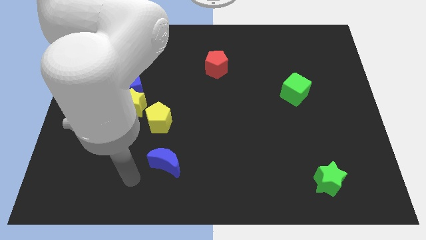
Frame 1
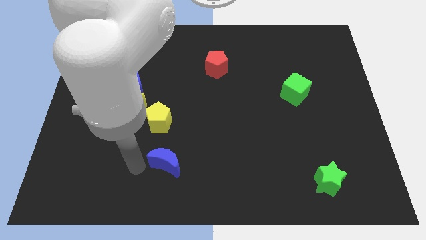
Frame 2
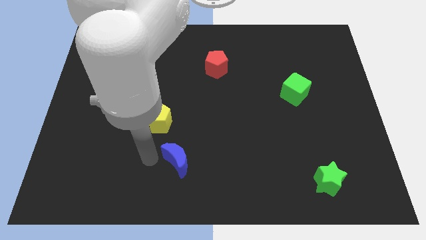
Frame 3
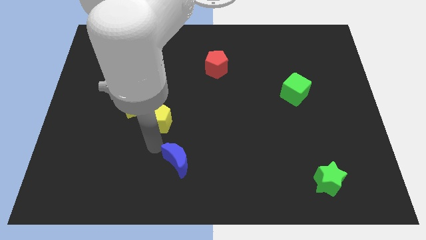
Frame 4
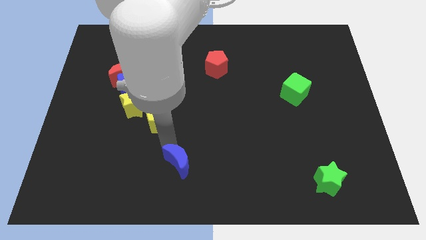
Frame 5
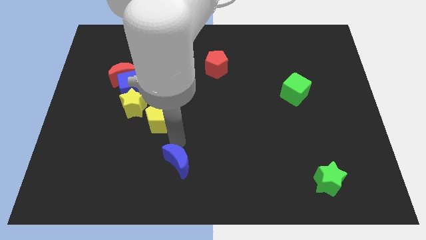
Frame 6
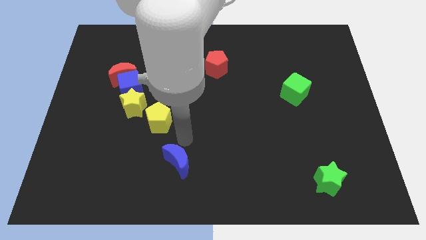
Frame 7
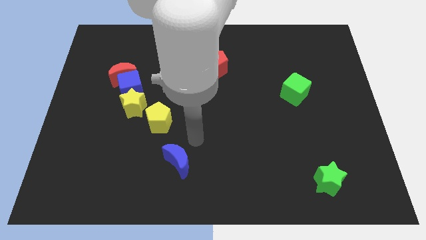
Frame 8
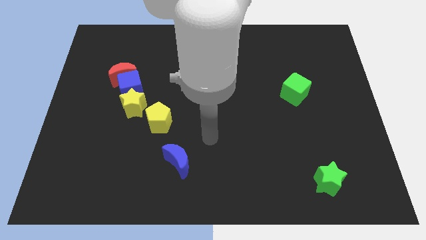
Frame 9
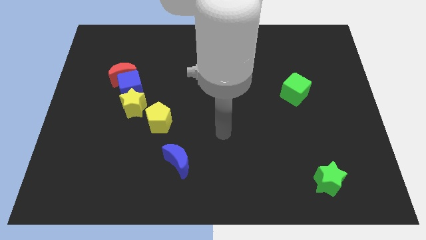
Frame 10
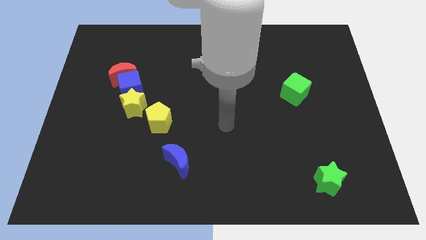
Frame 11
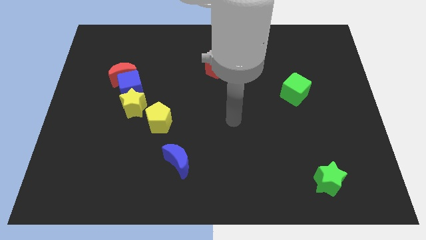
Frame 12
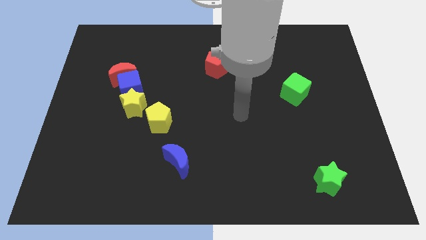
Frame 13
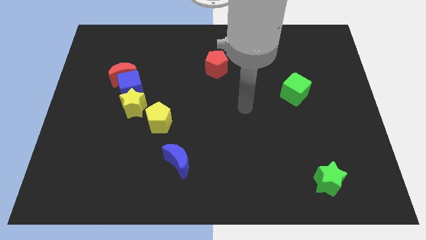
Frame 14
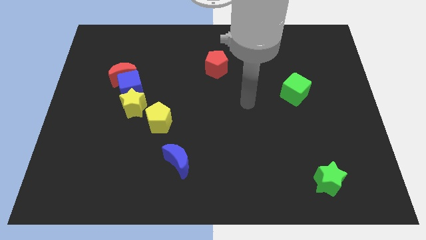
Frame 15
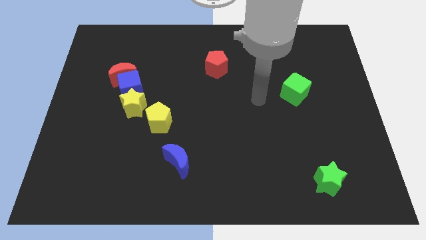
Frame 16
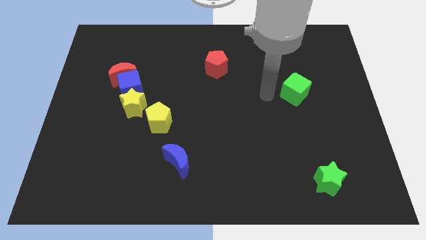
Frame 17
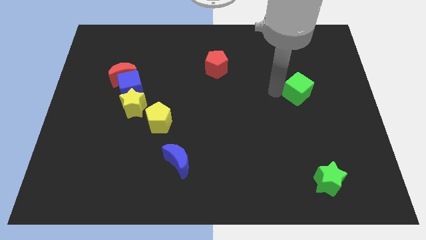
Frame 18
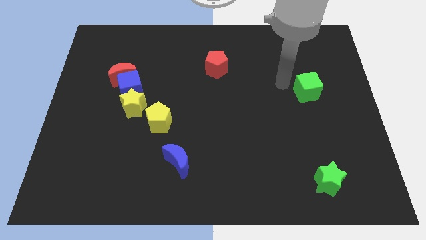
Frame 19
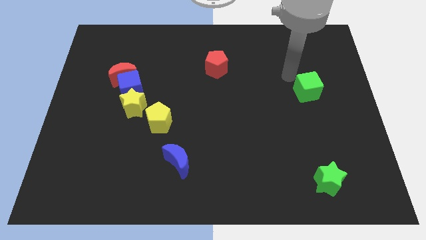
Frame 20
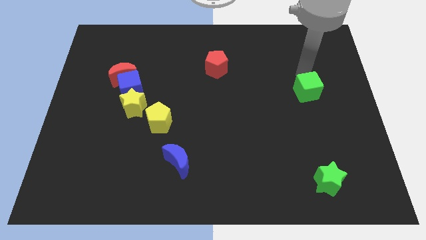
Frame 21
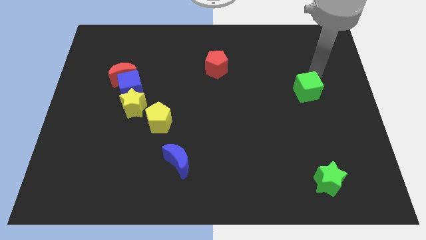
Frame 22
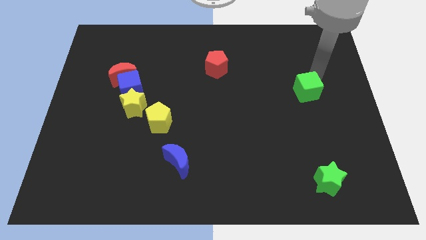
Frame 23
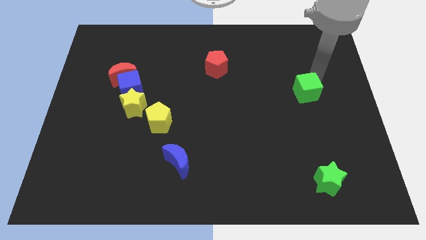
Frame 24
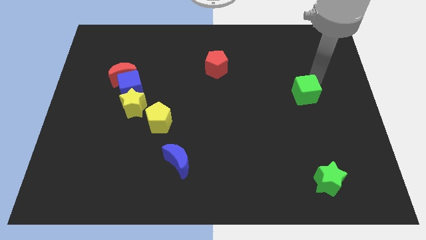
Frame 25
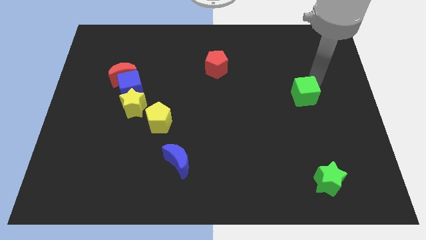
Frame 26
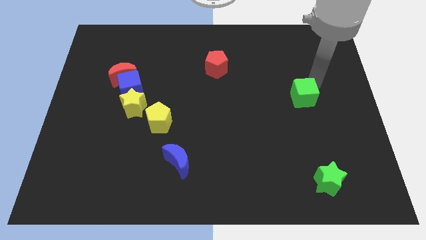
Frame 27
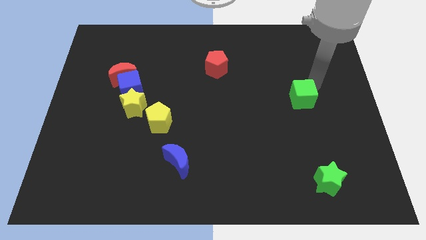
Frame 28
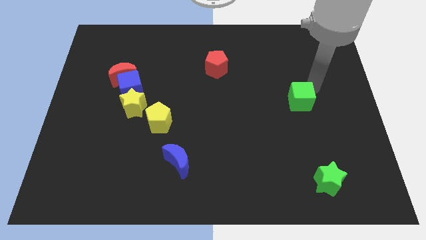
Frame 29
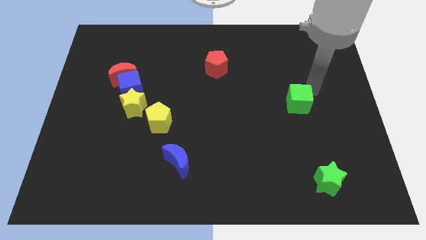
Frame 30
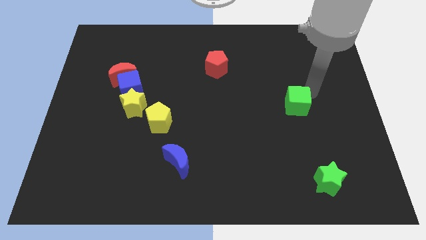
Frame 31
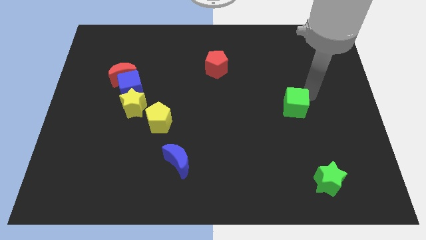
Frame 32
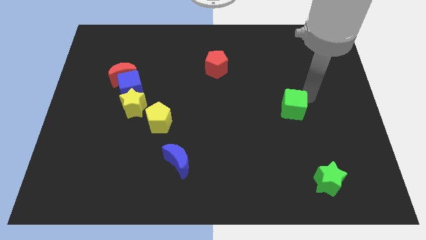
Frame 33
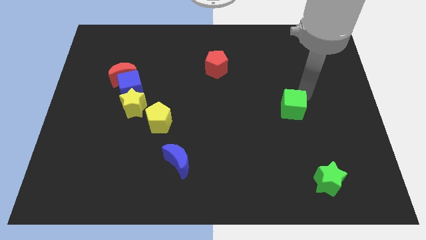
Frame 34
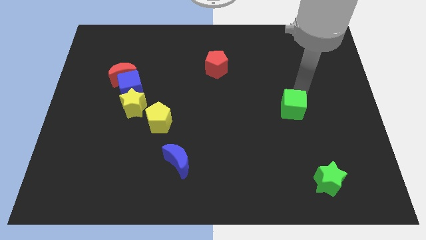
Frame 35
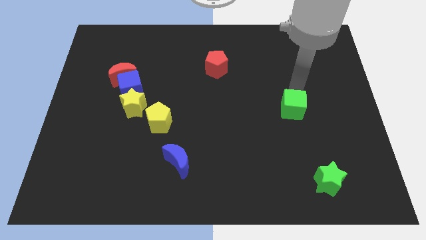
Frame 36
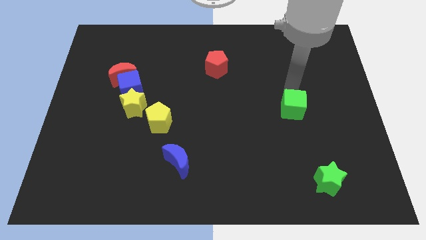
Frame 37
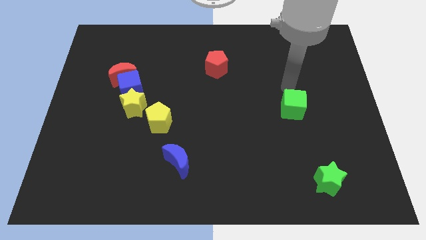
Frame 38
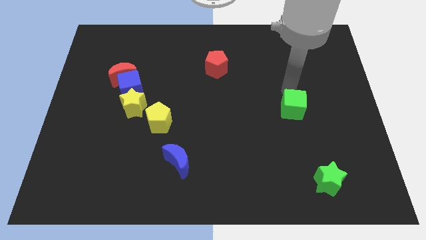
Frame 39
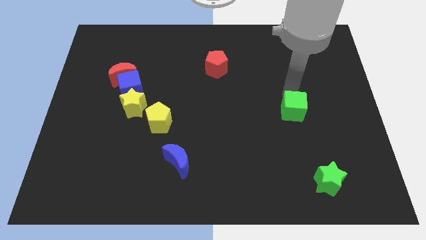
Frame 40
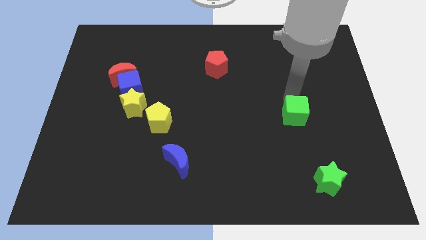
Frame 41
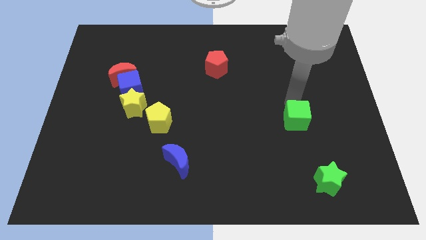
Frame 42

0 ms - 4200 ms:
move the green cube slightly down

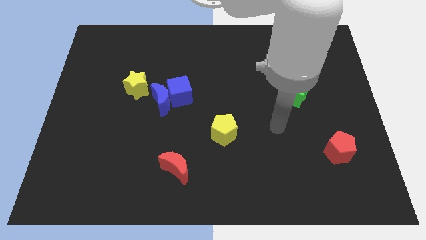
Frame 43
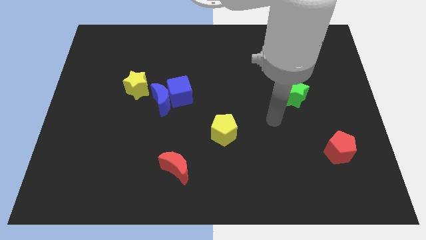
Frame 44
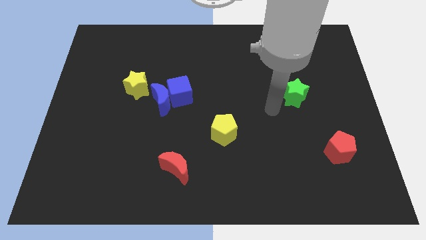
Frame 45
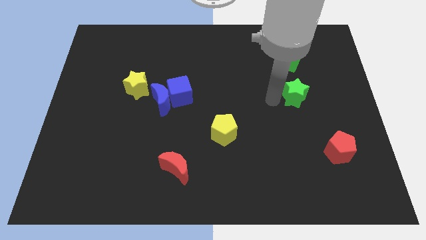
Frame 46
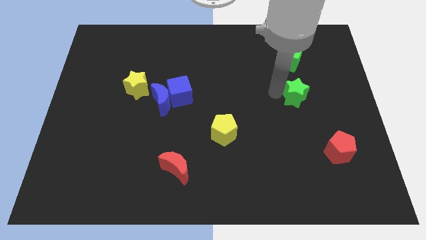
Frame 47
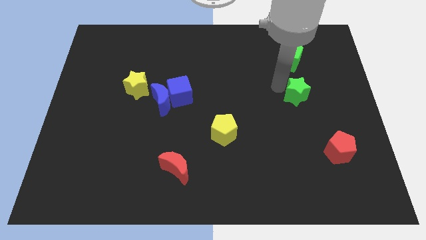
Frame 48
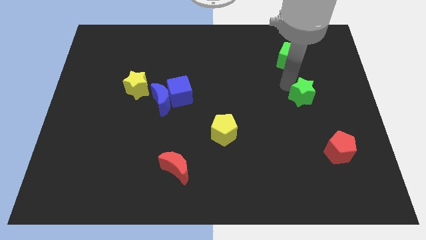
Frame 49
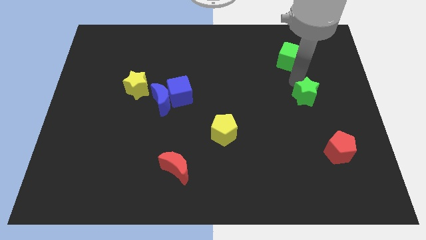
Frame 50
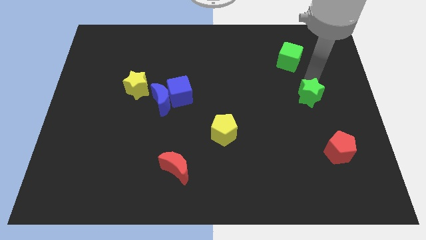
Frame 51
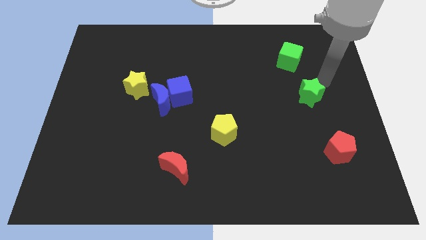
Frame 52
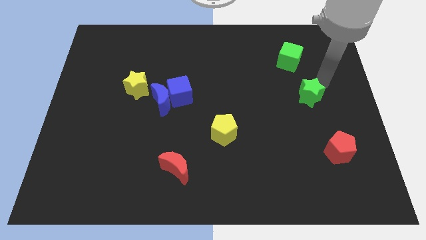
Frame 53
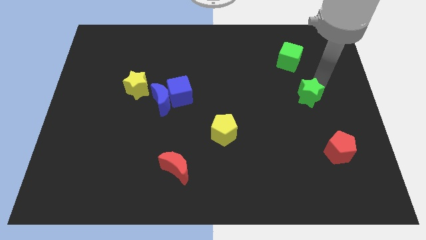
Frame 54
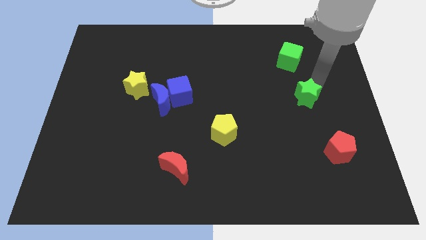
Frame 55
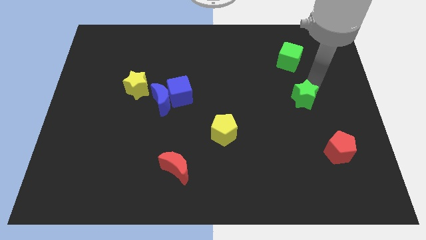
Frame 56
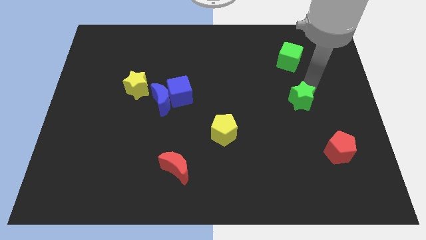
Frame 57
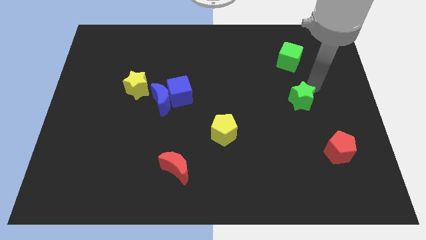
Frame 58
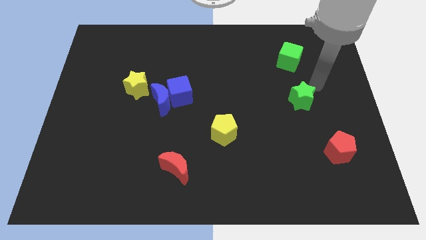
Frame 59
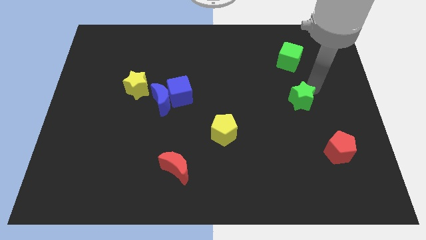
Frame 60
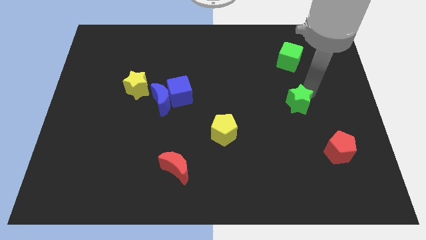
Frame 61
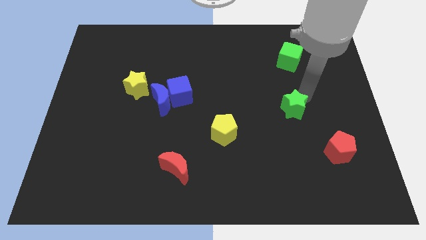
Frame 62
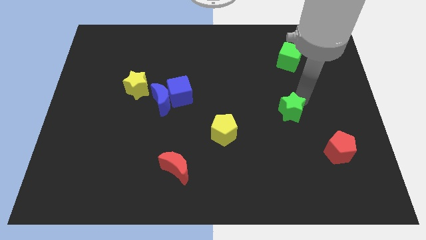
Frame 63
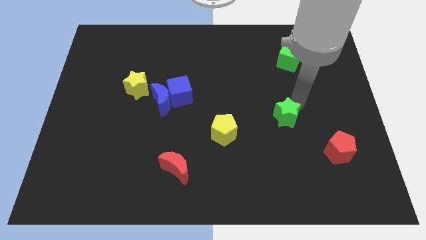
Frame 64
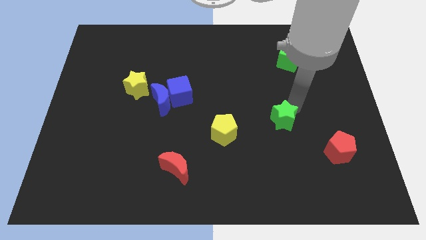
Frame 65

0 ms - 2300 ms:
slide the green star a bit down and left

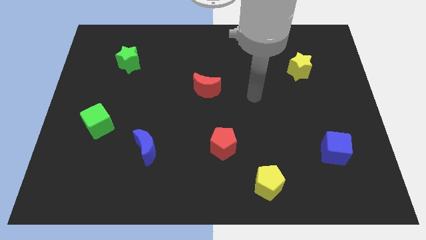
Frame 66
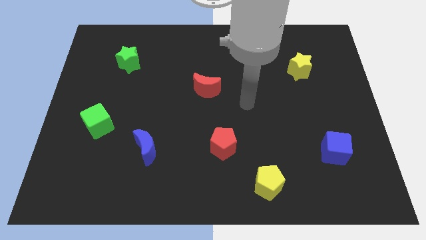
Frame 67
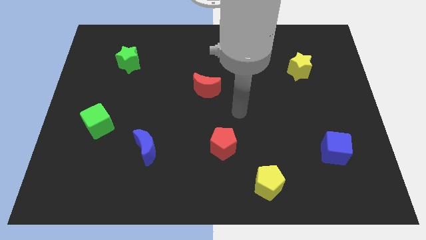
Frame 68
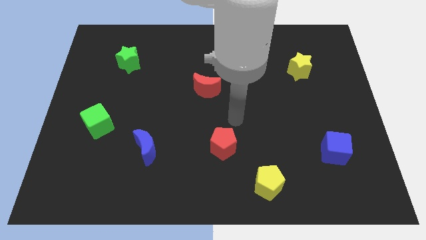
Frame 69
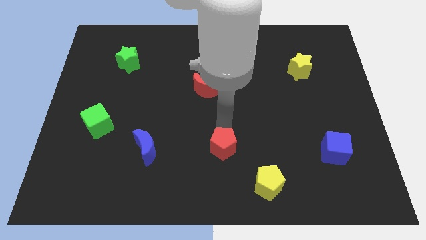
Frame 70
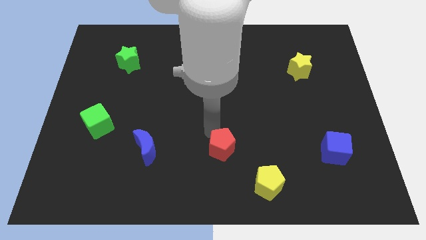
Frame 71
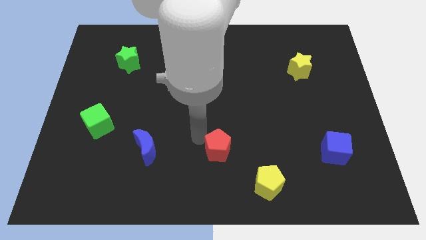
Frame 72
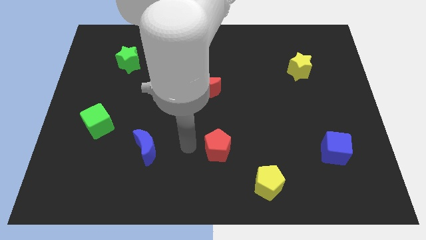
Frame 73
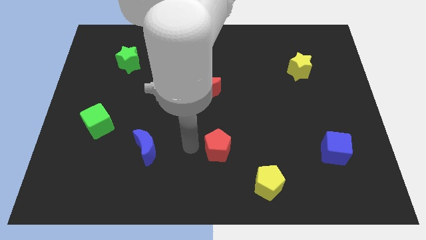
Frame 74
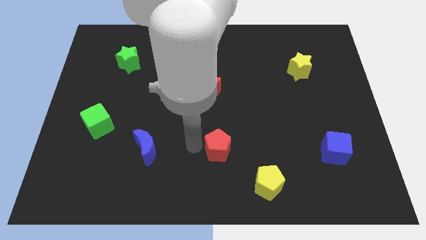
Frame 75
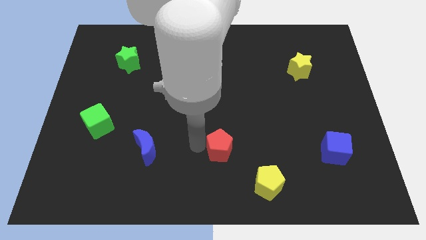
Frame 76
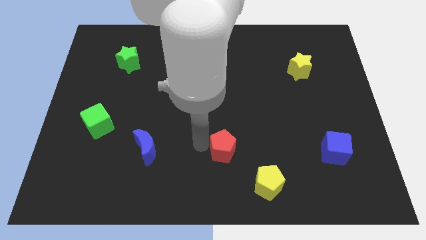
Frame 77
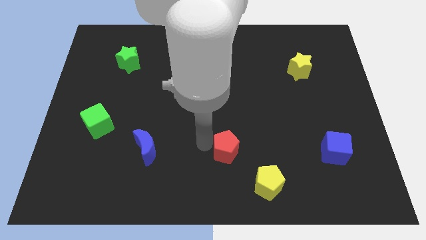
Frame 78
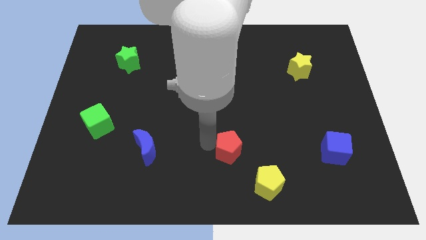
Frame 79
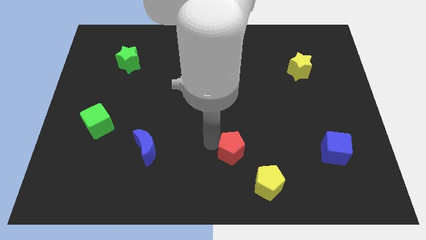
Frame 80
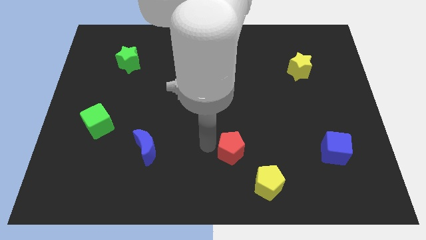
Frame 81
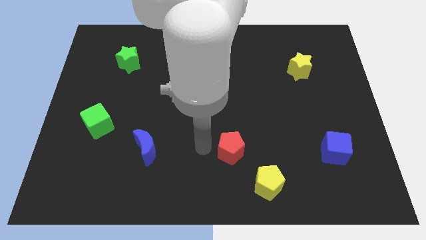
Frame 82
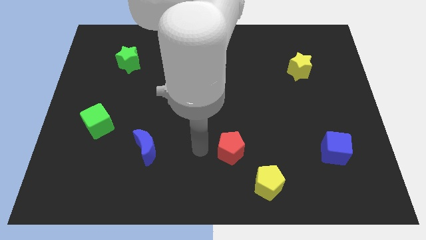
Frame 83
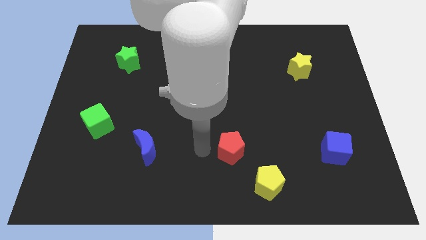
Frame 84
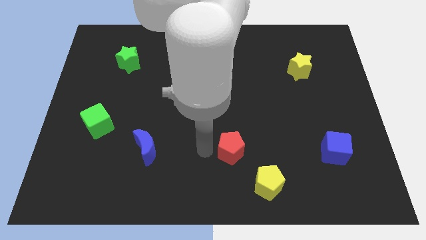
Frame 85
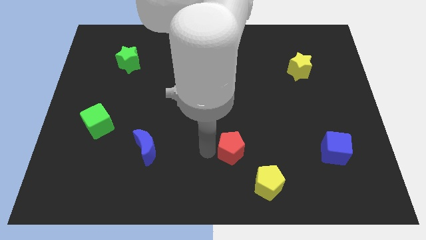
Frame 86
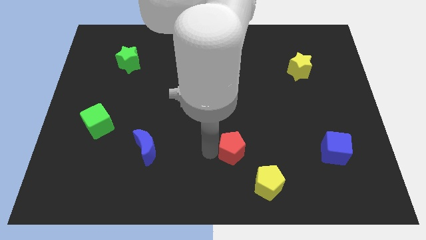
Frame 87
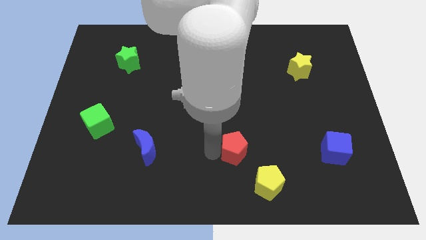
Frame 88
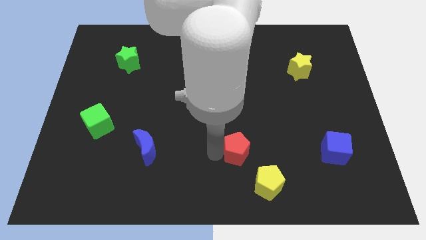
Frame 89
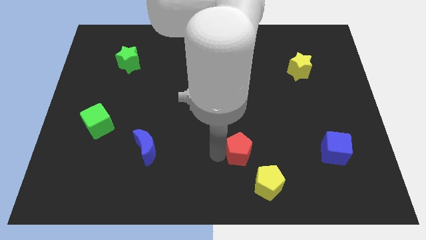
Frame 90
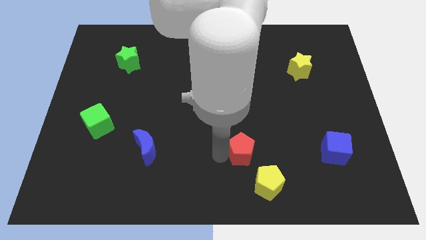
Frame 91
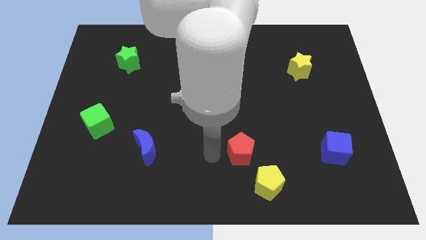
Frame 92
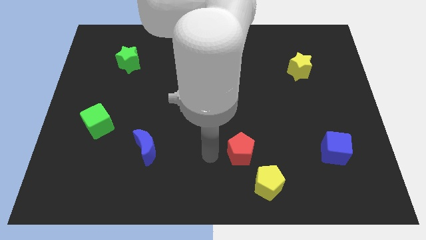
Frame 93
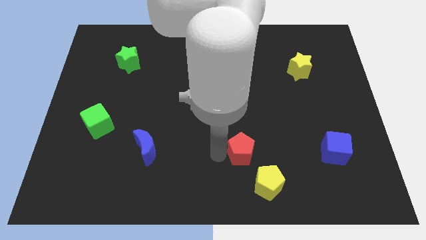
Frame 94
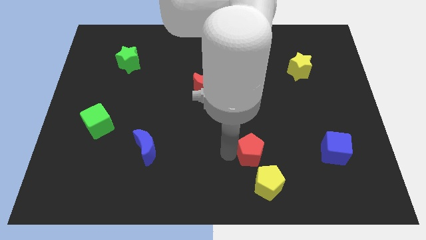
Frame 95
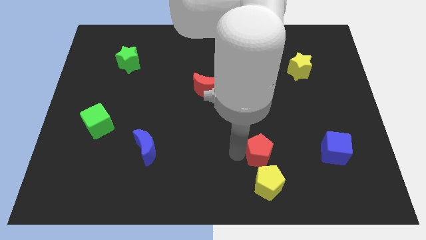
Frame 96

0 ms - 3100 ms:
move the red pentagon a little bit to the right
